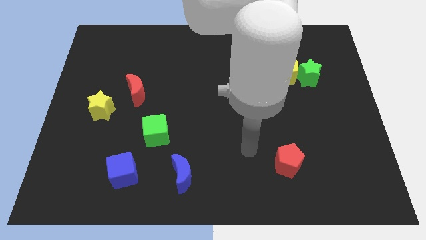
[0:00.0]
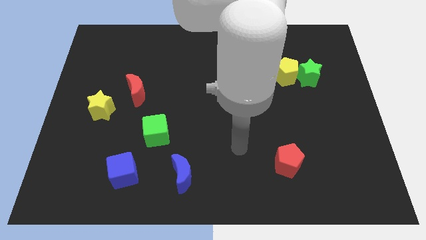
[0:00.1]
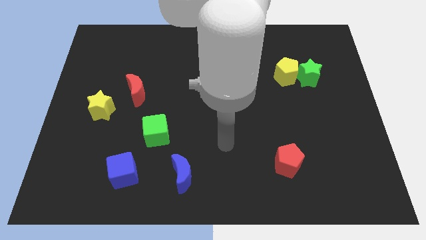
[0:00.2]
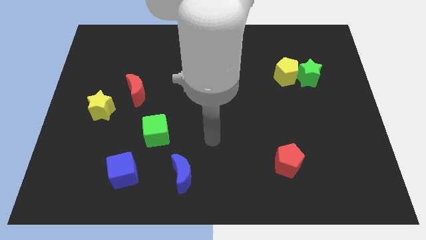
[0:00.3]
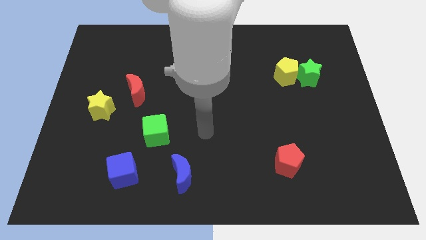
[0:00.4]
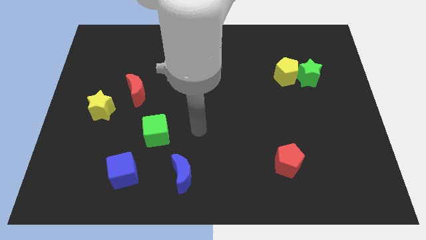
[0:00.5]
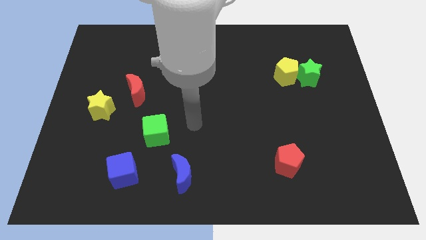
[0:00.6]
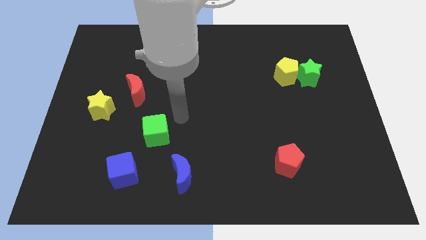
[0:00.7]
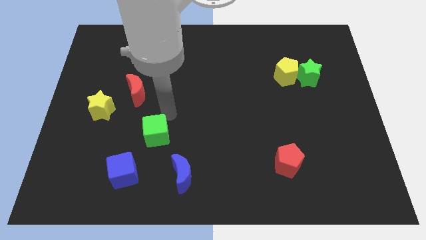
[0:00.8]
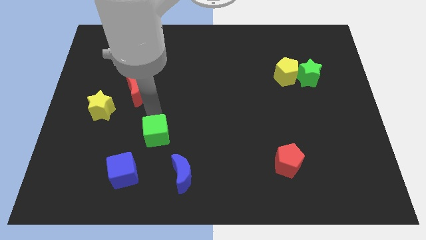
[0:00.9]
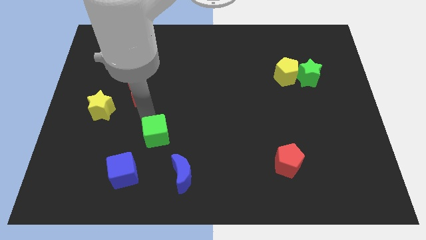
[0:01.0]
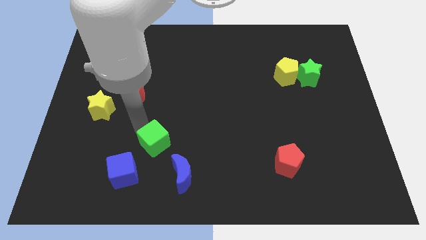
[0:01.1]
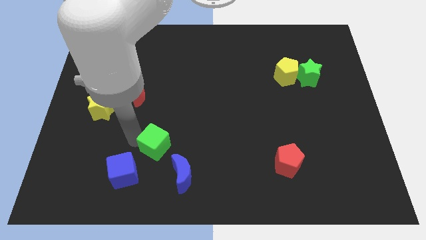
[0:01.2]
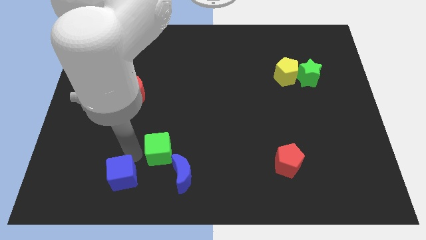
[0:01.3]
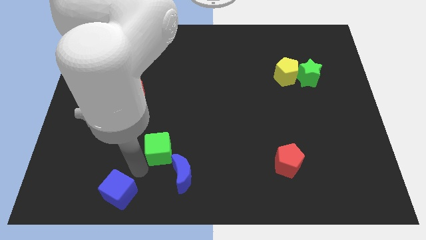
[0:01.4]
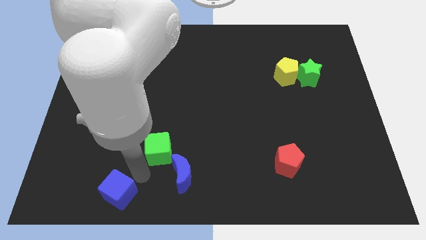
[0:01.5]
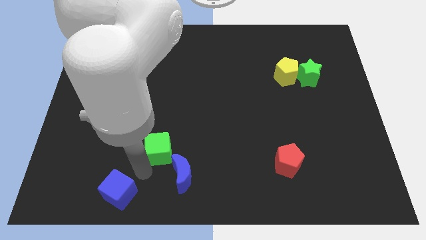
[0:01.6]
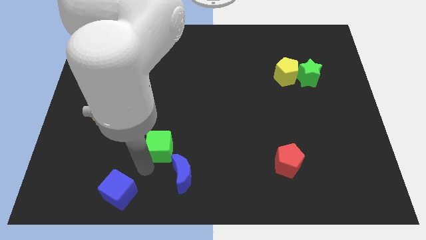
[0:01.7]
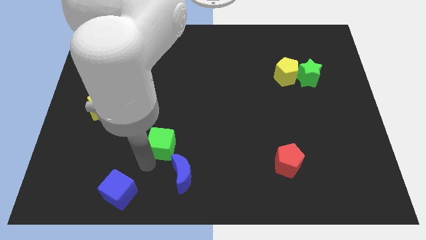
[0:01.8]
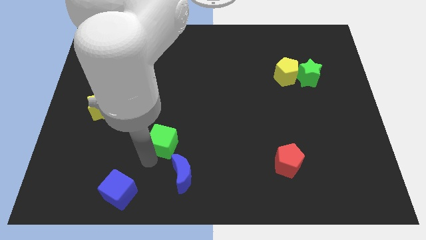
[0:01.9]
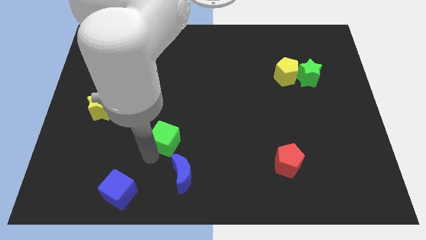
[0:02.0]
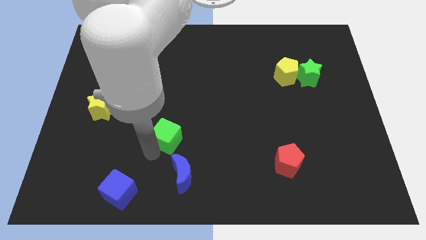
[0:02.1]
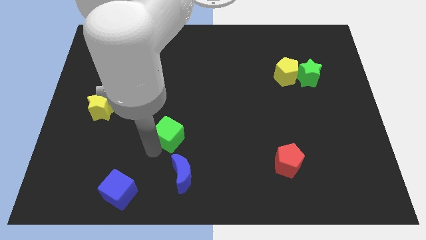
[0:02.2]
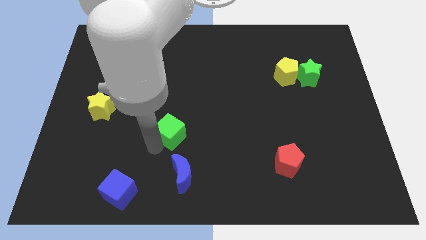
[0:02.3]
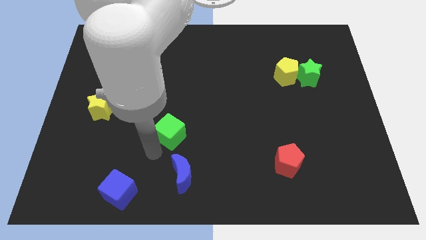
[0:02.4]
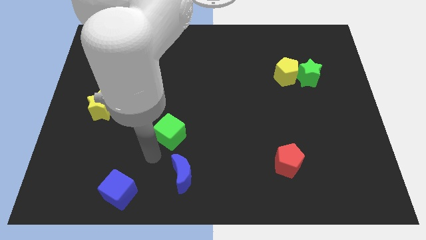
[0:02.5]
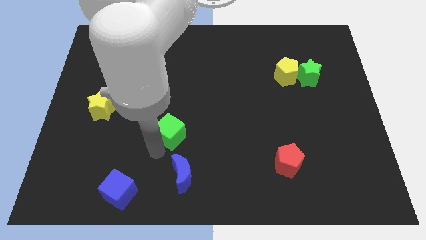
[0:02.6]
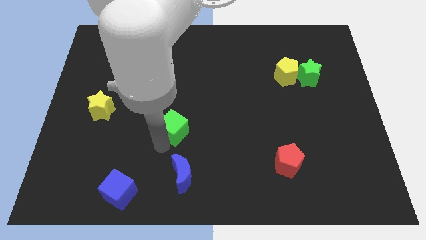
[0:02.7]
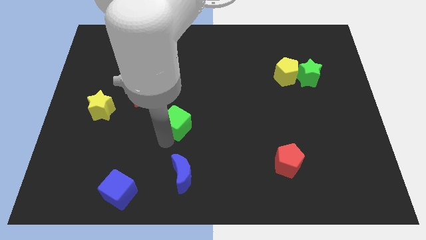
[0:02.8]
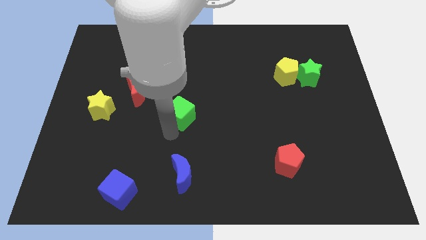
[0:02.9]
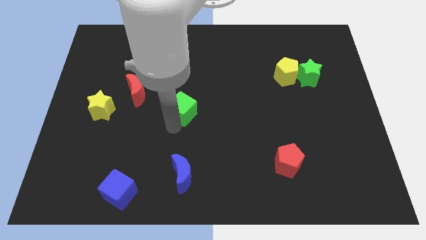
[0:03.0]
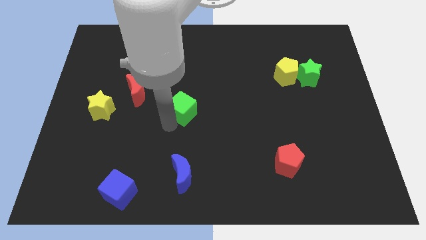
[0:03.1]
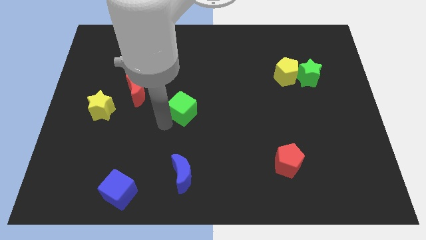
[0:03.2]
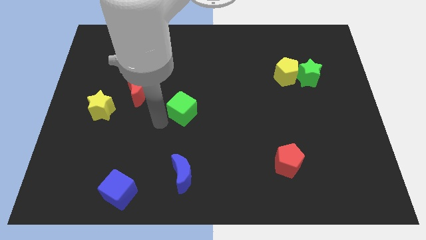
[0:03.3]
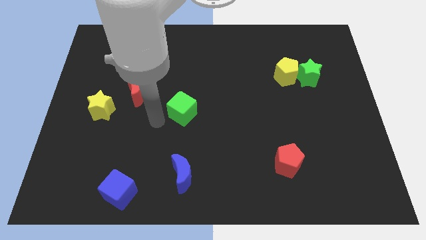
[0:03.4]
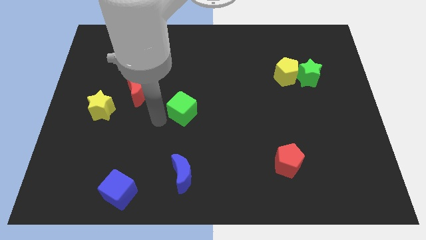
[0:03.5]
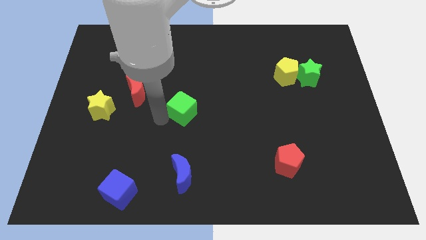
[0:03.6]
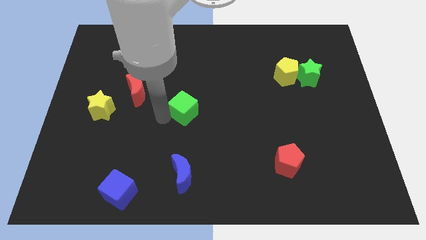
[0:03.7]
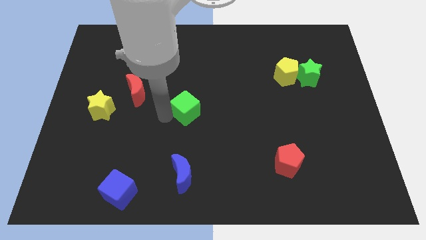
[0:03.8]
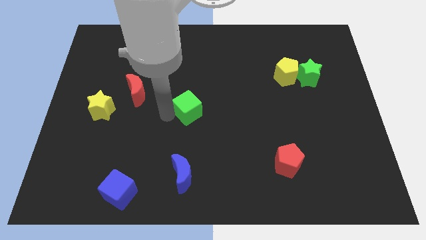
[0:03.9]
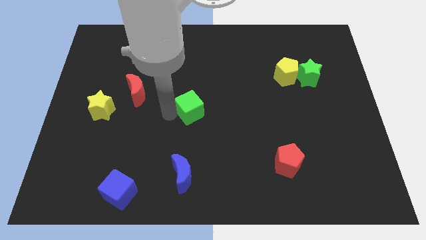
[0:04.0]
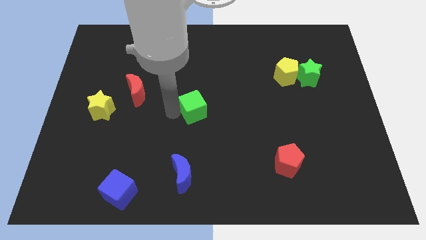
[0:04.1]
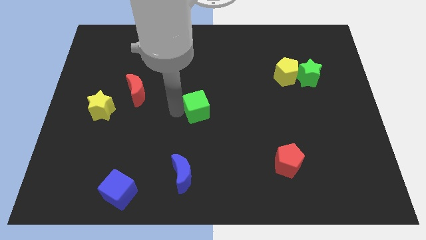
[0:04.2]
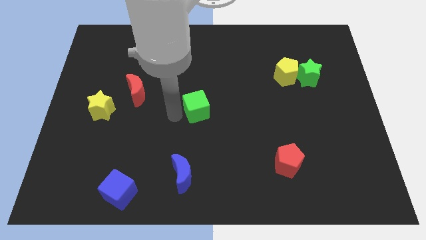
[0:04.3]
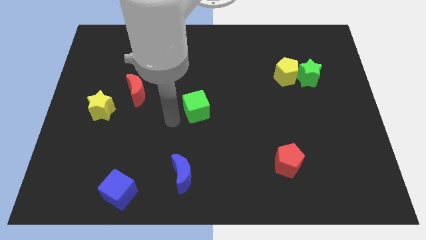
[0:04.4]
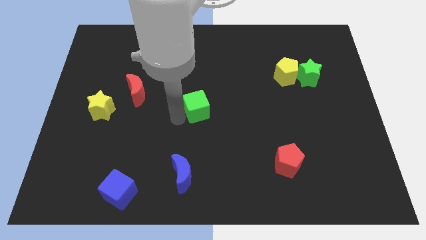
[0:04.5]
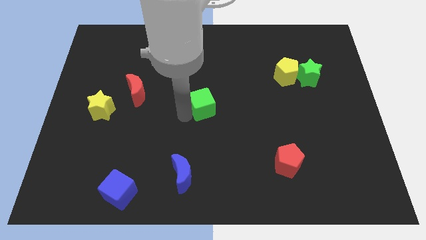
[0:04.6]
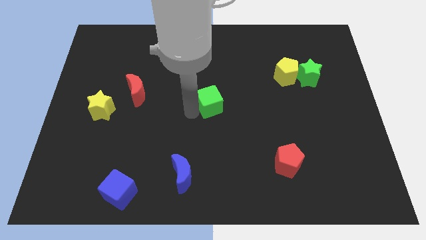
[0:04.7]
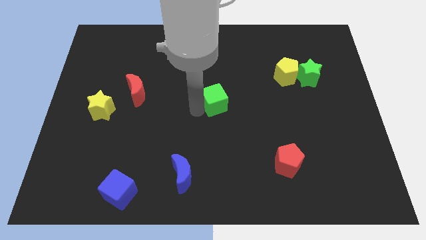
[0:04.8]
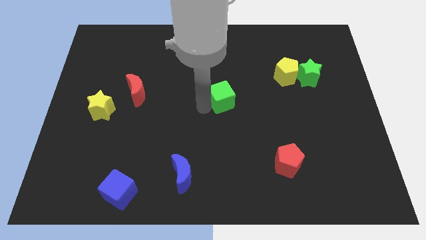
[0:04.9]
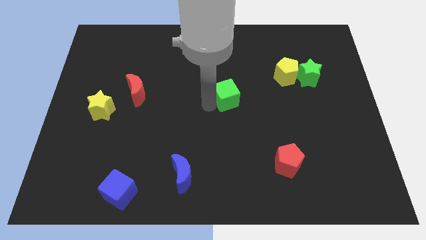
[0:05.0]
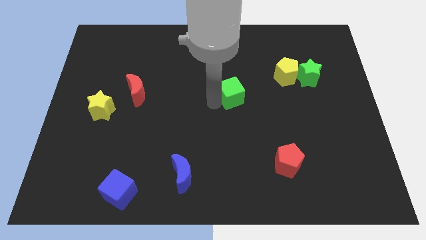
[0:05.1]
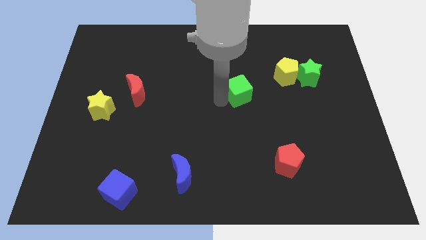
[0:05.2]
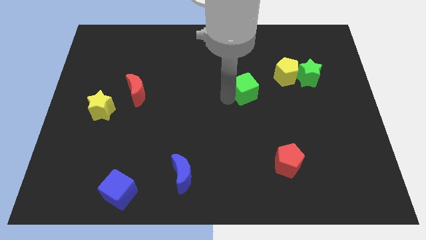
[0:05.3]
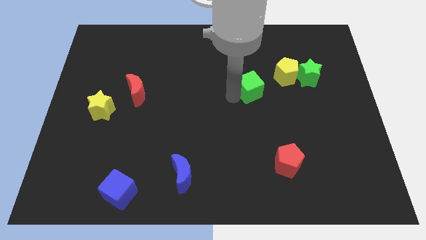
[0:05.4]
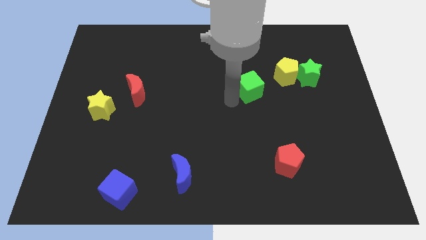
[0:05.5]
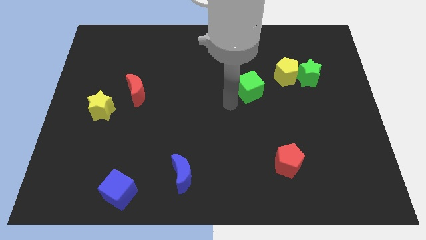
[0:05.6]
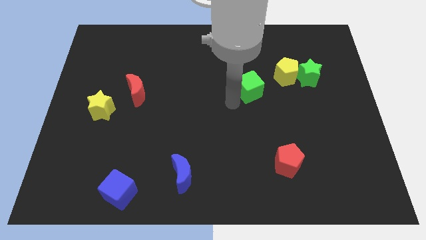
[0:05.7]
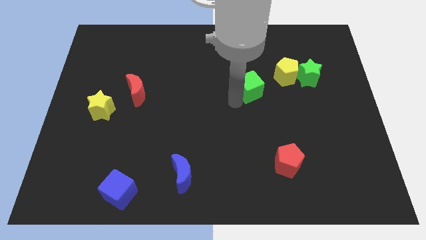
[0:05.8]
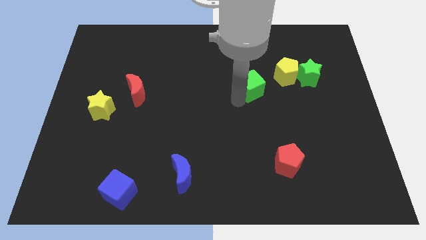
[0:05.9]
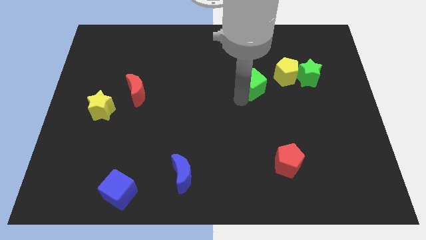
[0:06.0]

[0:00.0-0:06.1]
move the green cube to the left of the green star

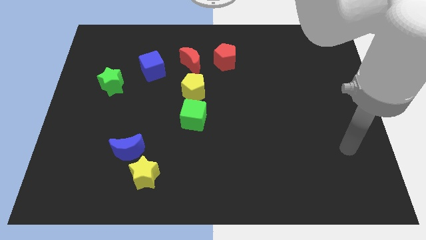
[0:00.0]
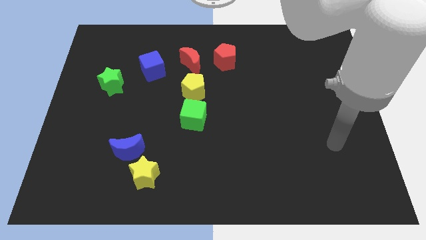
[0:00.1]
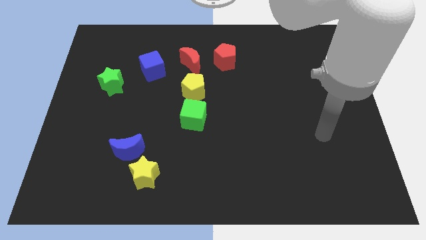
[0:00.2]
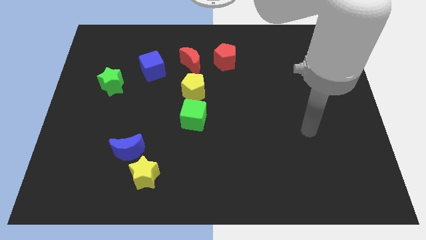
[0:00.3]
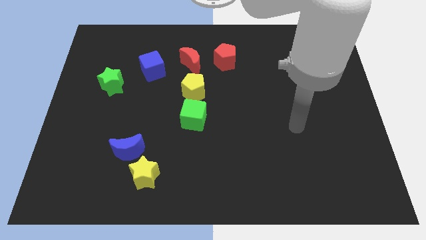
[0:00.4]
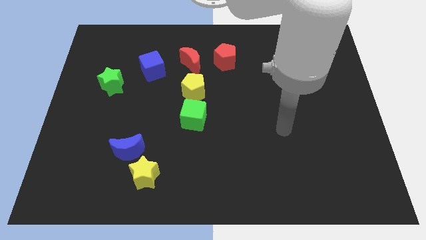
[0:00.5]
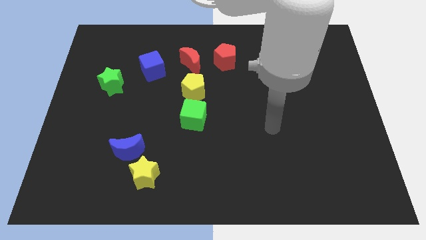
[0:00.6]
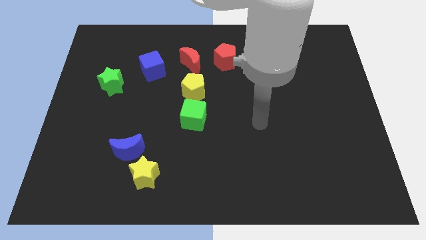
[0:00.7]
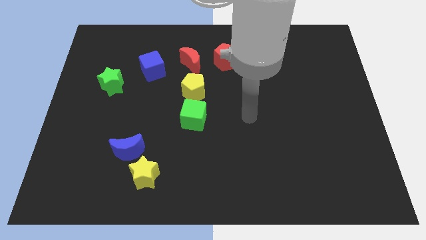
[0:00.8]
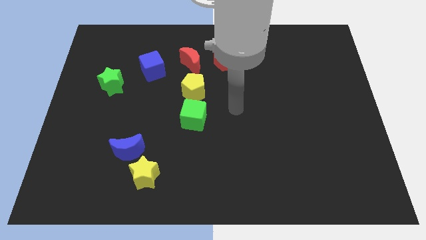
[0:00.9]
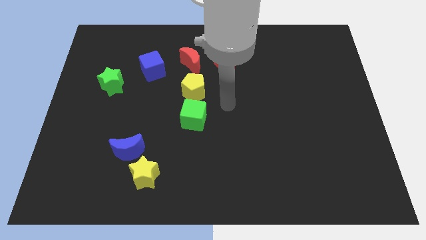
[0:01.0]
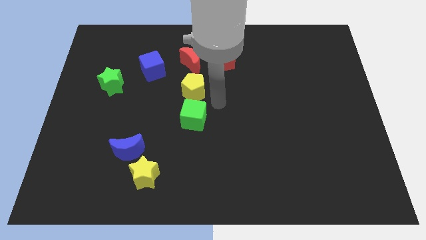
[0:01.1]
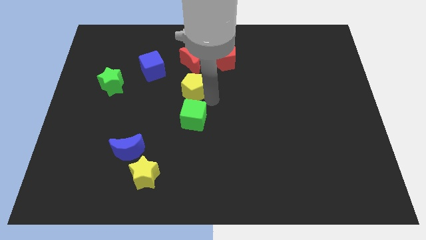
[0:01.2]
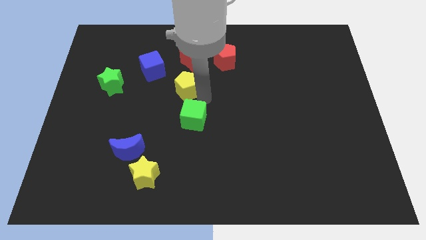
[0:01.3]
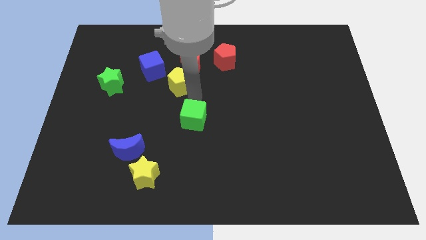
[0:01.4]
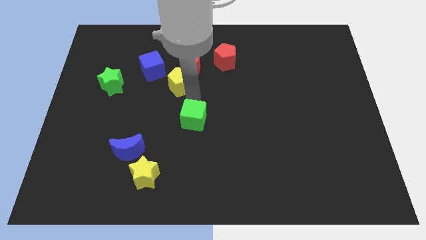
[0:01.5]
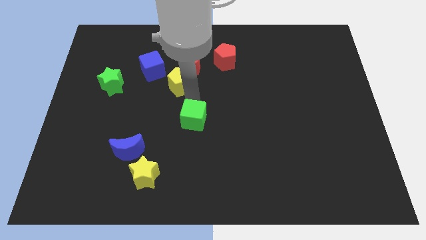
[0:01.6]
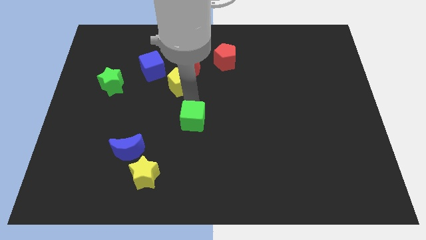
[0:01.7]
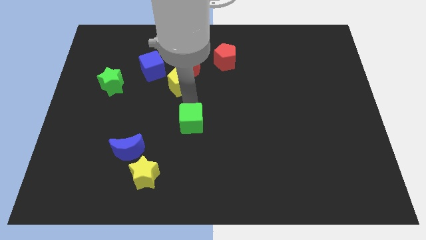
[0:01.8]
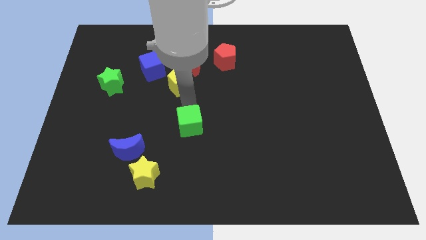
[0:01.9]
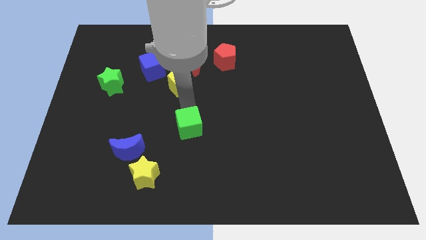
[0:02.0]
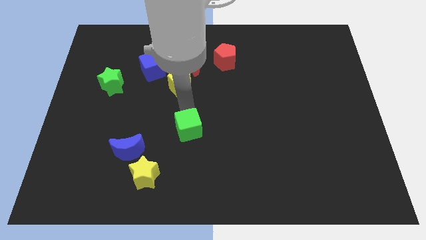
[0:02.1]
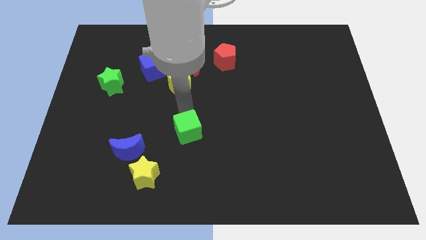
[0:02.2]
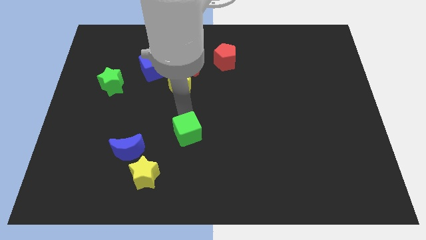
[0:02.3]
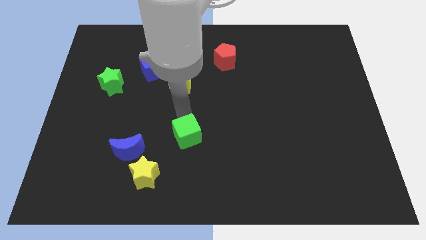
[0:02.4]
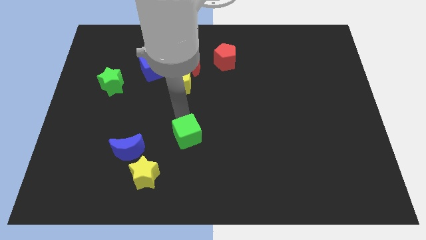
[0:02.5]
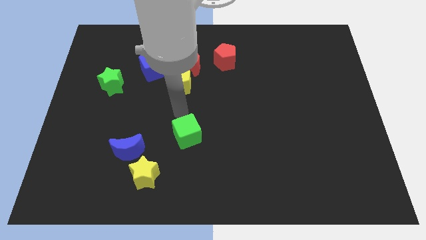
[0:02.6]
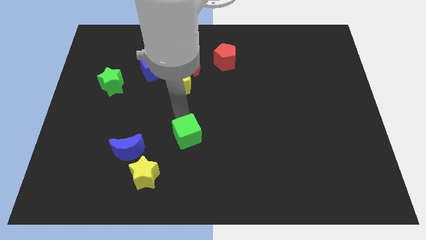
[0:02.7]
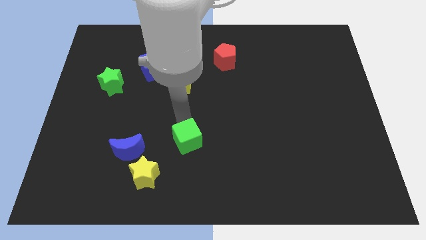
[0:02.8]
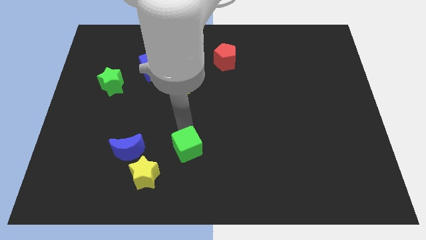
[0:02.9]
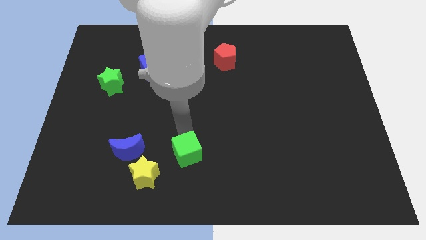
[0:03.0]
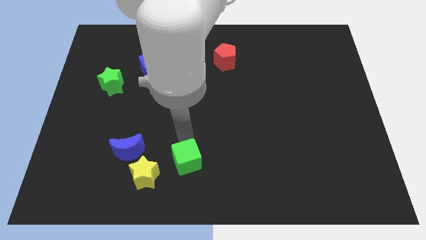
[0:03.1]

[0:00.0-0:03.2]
put the green cube just right of the yellow star
